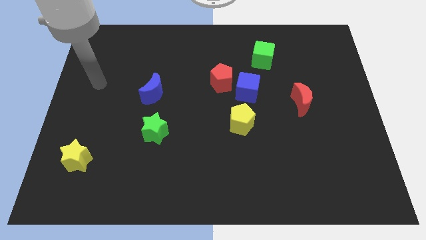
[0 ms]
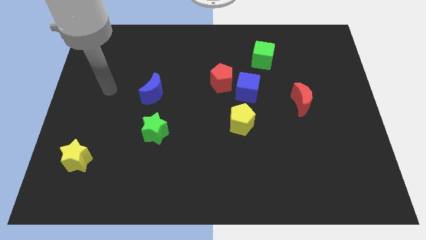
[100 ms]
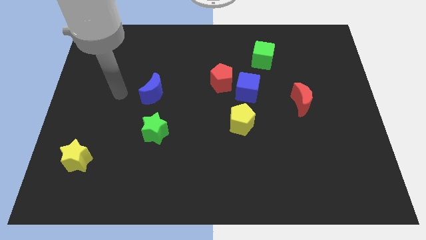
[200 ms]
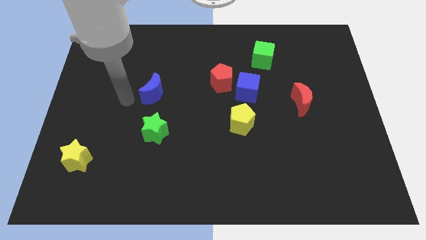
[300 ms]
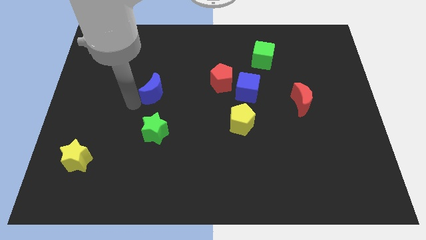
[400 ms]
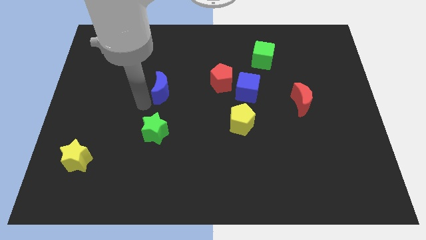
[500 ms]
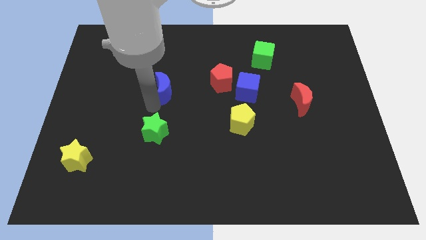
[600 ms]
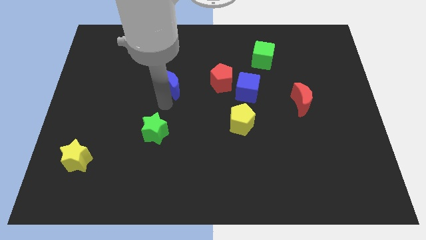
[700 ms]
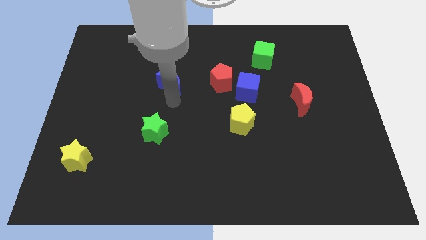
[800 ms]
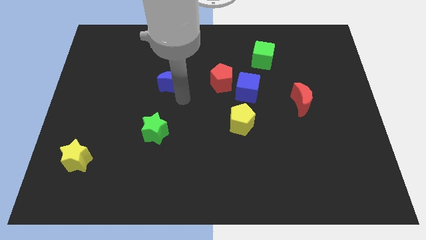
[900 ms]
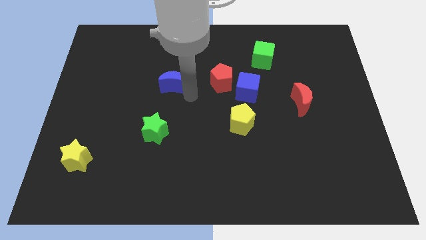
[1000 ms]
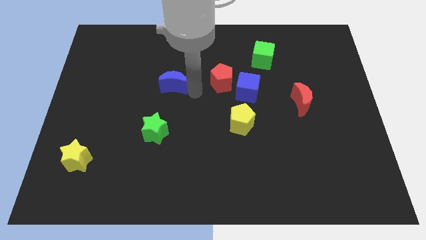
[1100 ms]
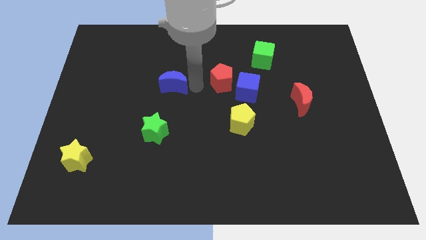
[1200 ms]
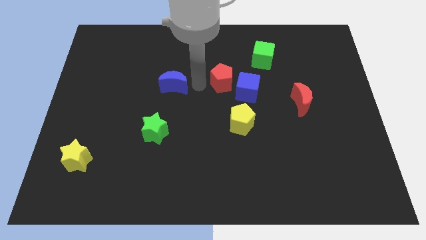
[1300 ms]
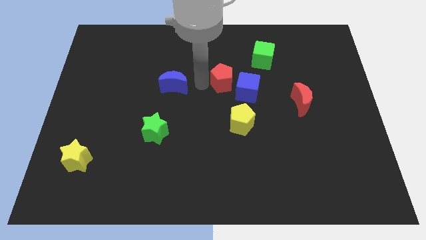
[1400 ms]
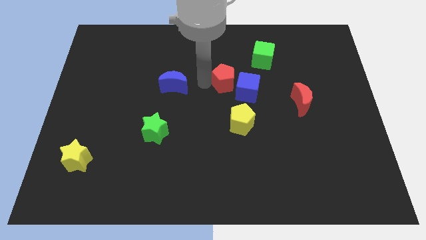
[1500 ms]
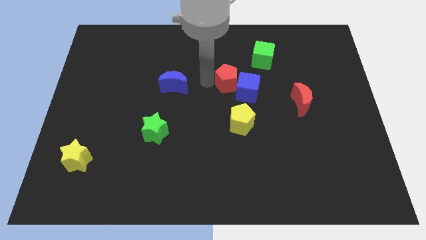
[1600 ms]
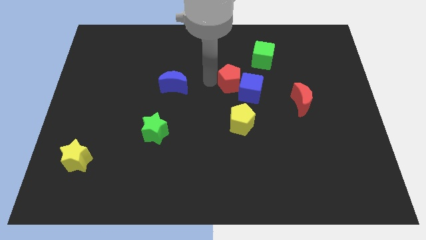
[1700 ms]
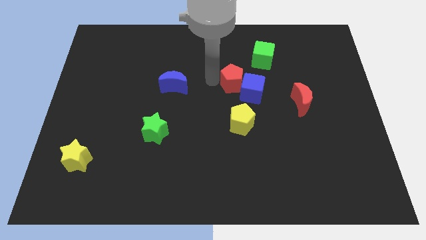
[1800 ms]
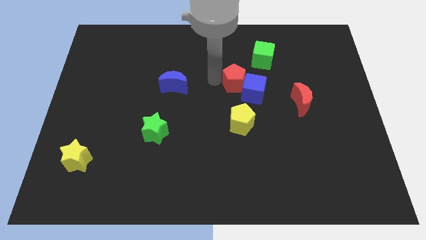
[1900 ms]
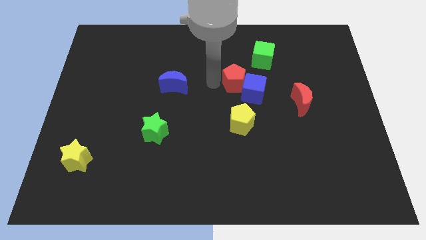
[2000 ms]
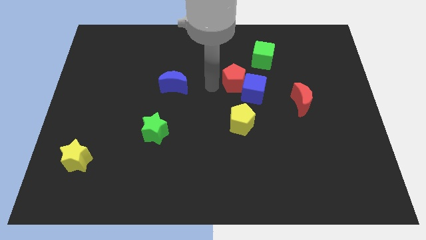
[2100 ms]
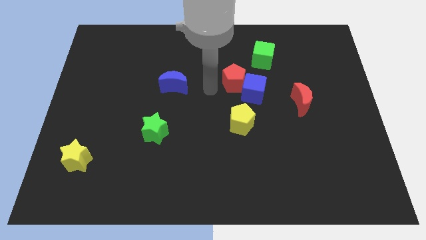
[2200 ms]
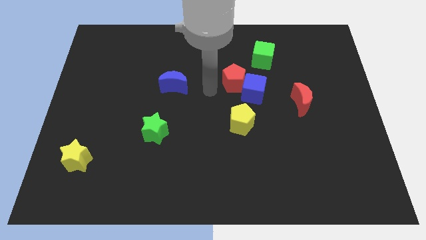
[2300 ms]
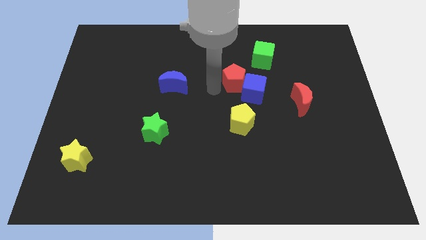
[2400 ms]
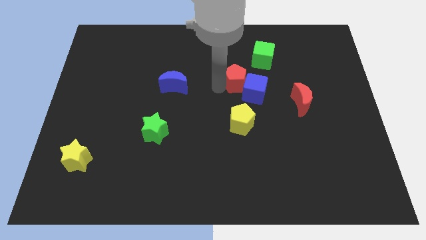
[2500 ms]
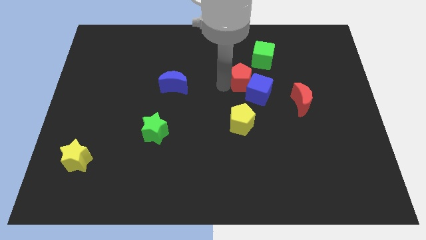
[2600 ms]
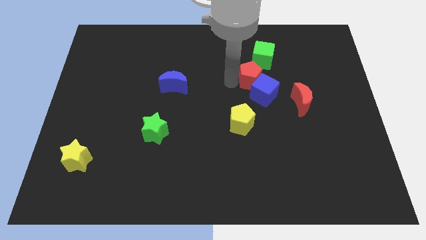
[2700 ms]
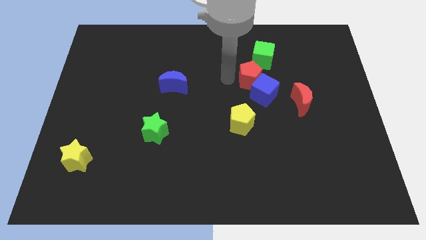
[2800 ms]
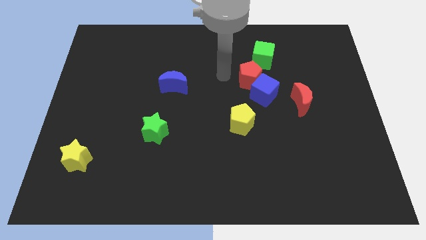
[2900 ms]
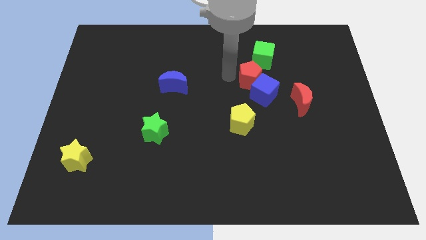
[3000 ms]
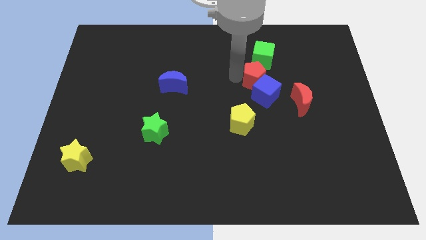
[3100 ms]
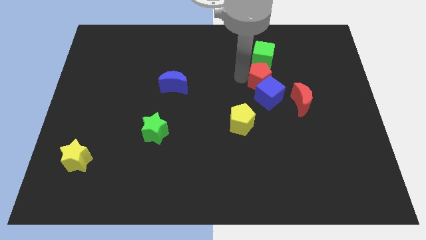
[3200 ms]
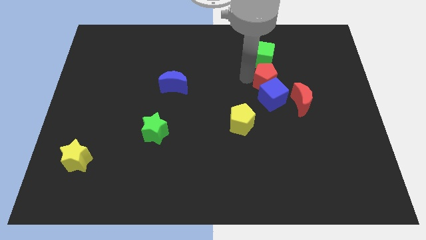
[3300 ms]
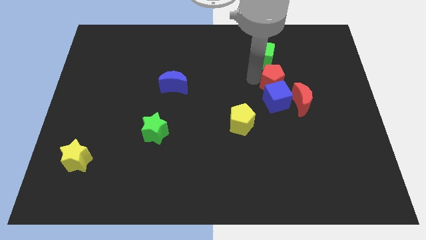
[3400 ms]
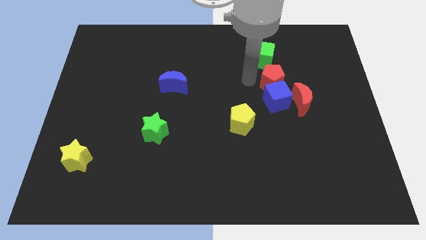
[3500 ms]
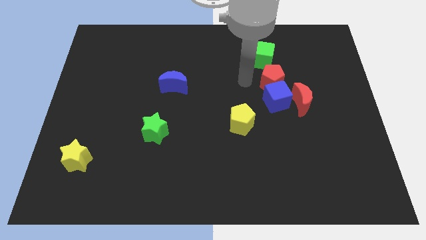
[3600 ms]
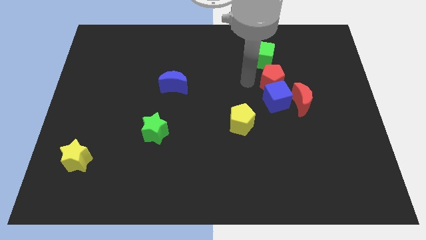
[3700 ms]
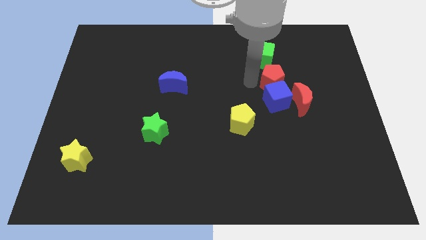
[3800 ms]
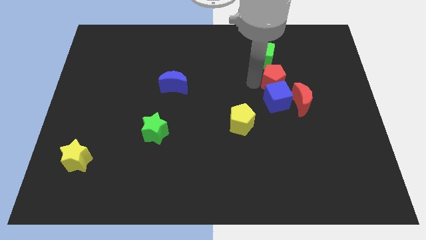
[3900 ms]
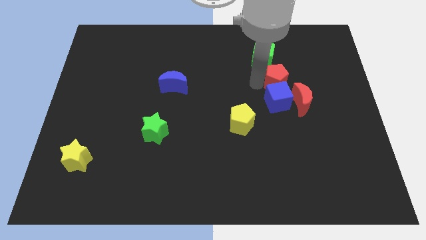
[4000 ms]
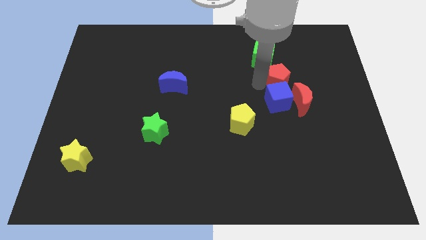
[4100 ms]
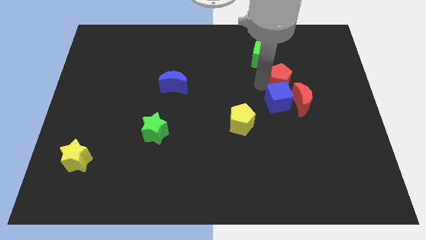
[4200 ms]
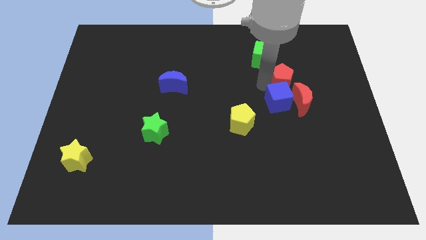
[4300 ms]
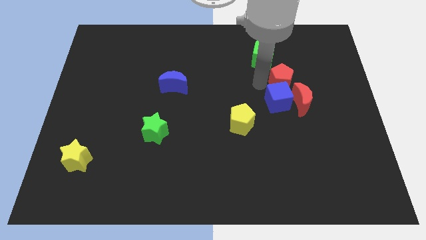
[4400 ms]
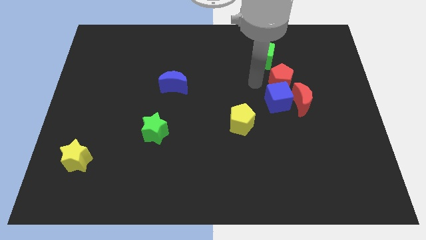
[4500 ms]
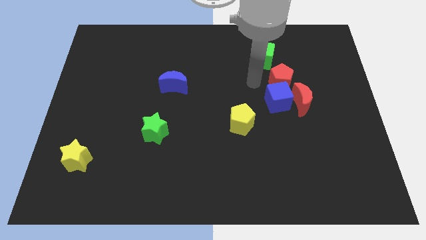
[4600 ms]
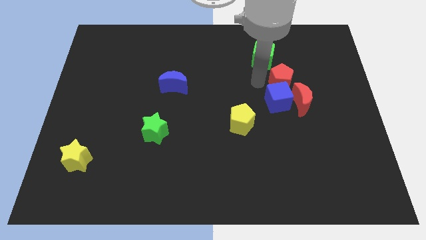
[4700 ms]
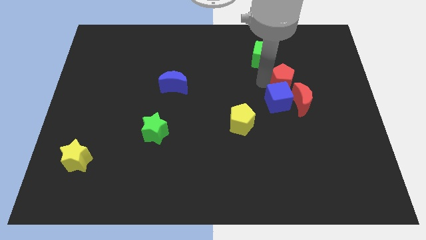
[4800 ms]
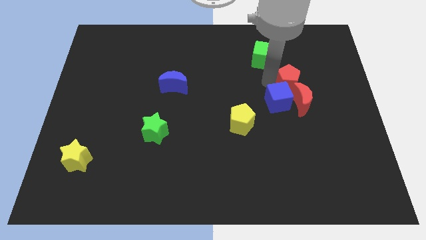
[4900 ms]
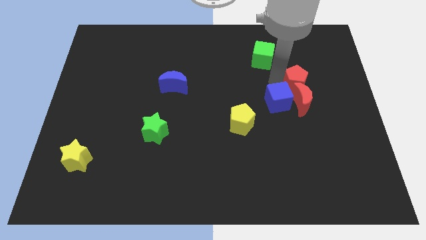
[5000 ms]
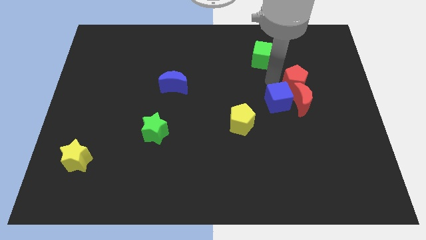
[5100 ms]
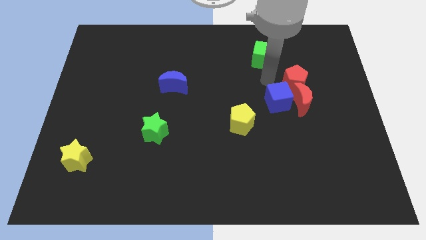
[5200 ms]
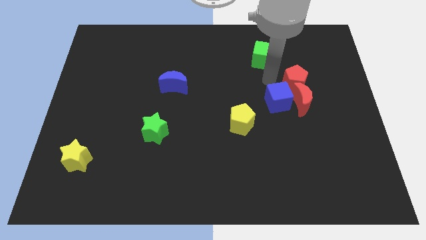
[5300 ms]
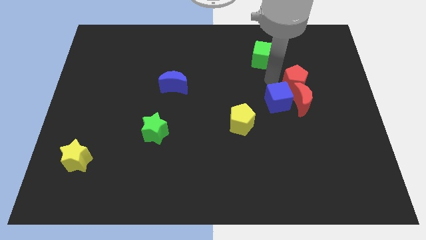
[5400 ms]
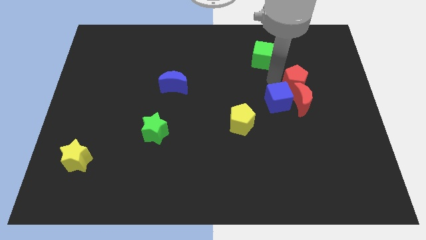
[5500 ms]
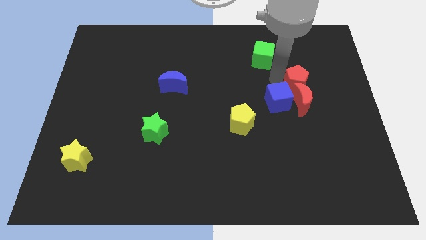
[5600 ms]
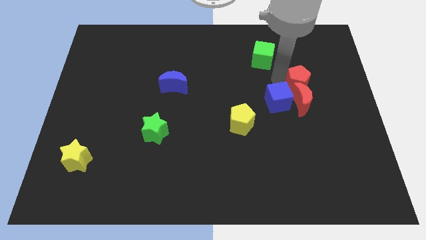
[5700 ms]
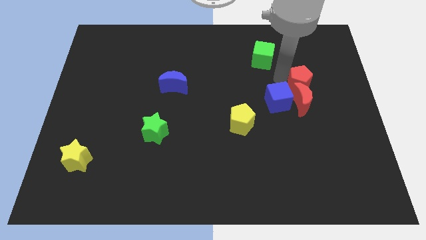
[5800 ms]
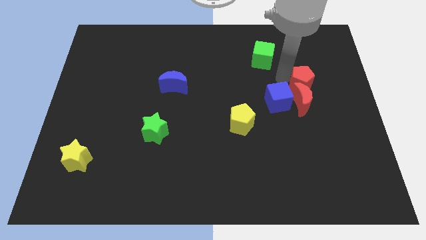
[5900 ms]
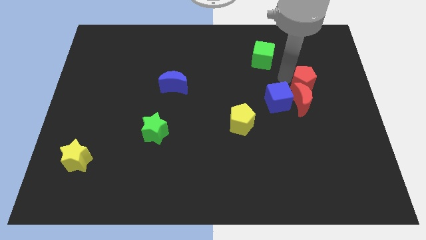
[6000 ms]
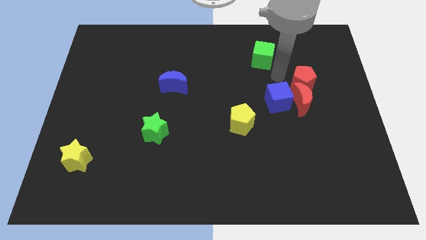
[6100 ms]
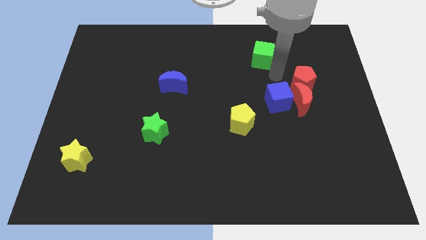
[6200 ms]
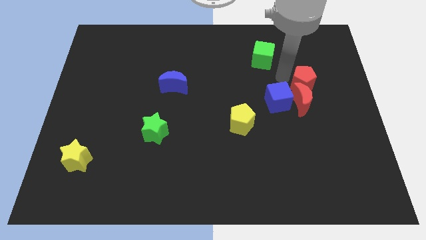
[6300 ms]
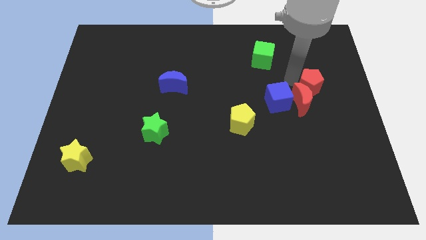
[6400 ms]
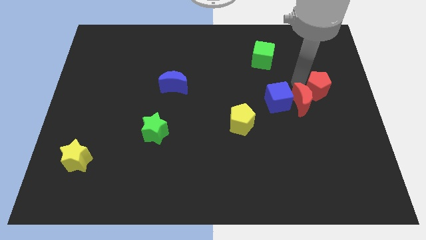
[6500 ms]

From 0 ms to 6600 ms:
move the red pentagon to the right side of the board

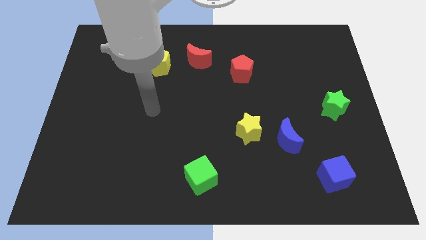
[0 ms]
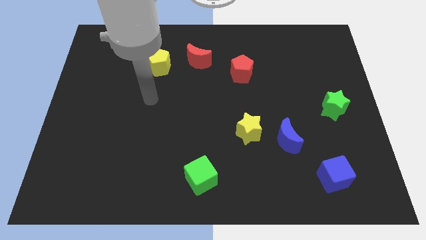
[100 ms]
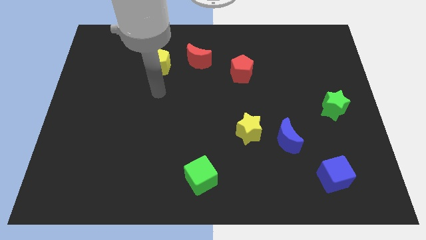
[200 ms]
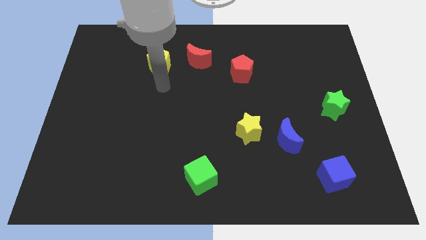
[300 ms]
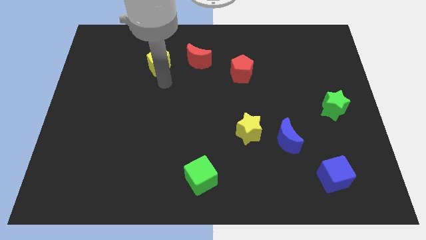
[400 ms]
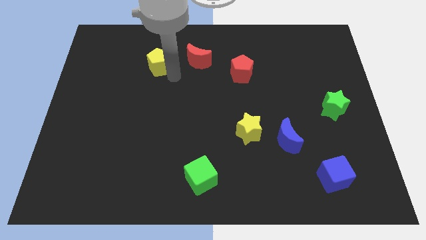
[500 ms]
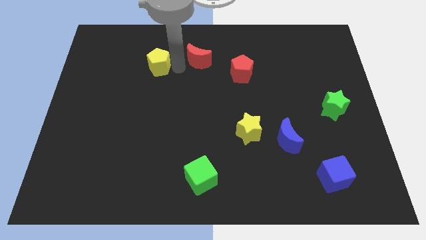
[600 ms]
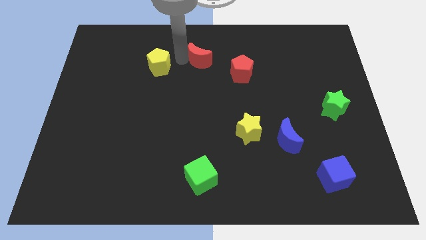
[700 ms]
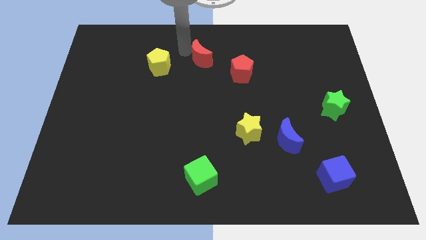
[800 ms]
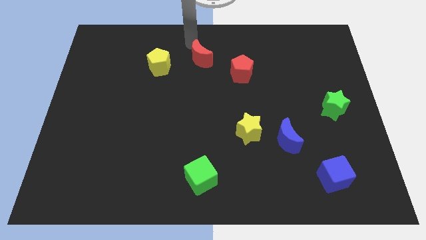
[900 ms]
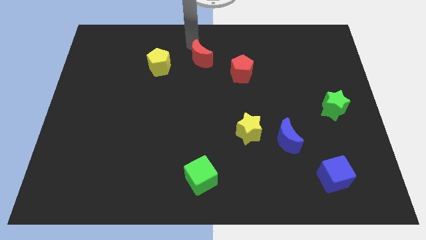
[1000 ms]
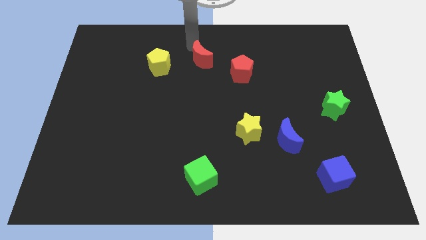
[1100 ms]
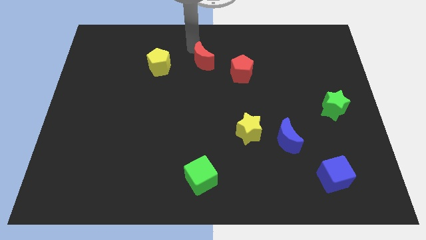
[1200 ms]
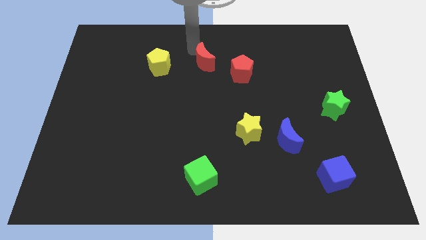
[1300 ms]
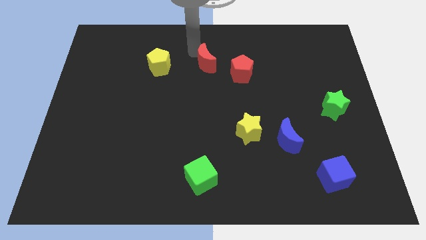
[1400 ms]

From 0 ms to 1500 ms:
move the red moon to the center
